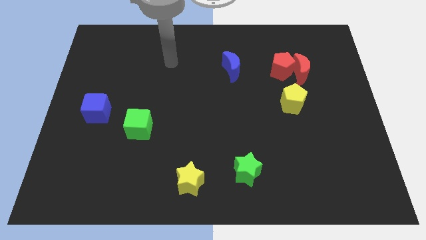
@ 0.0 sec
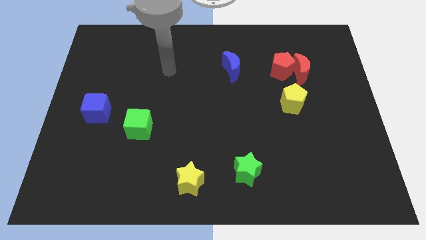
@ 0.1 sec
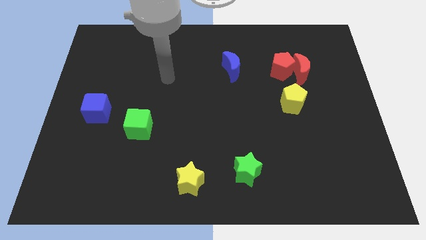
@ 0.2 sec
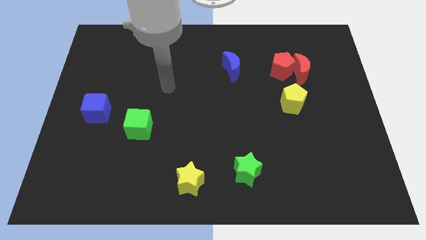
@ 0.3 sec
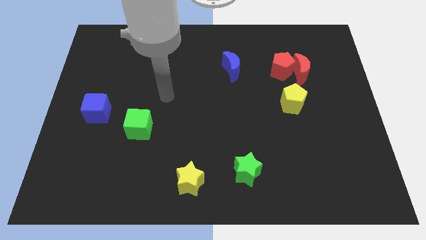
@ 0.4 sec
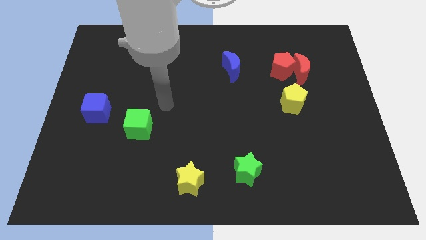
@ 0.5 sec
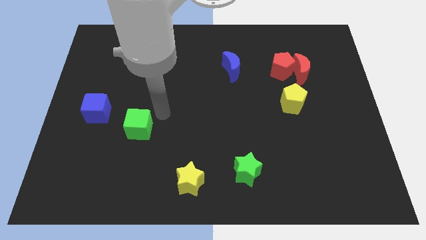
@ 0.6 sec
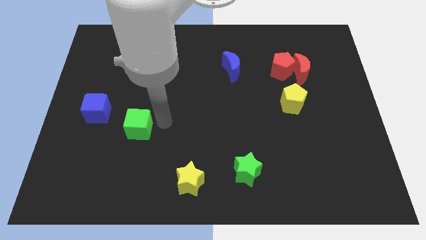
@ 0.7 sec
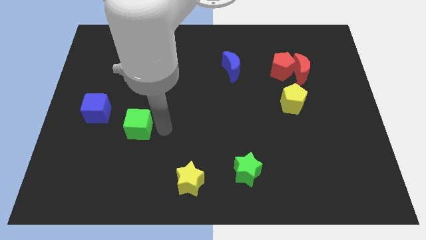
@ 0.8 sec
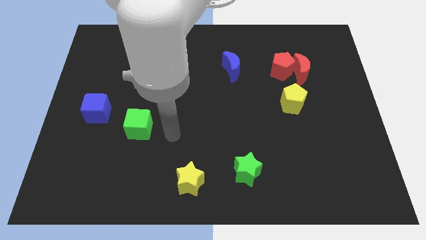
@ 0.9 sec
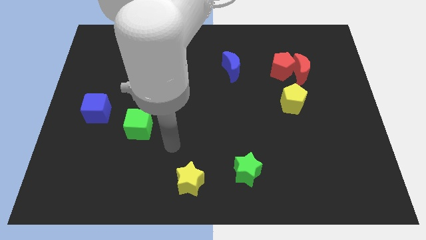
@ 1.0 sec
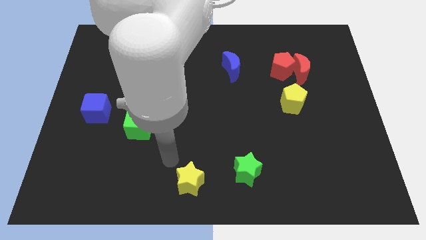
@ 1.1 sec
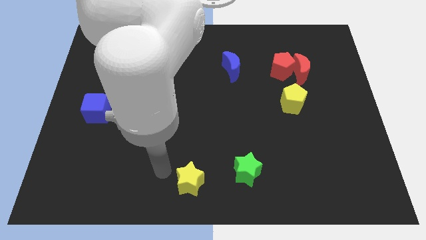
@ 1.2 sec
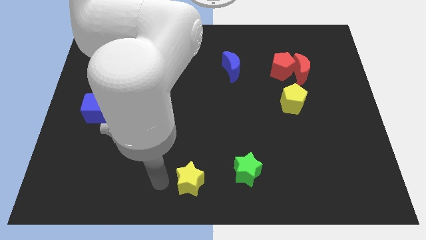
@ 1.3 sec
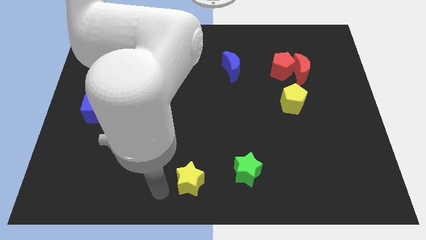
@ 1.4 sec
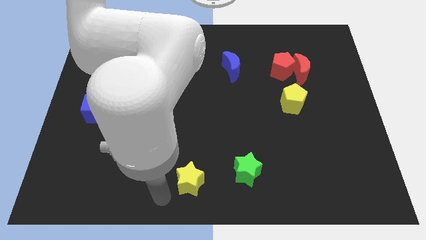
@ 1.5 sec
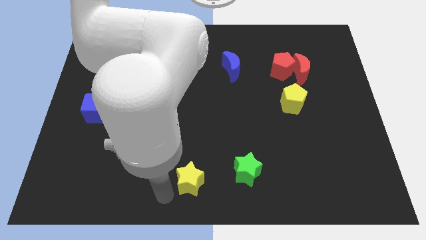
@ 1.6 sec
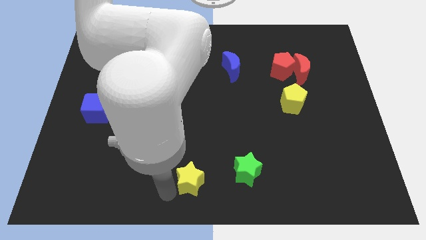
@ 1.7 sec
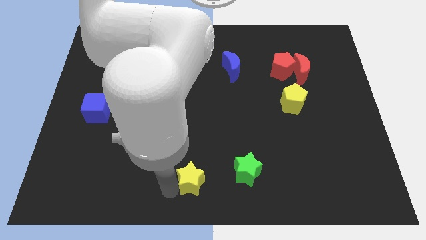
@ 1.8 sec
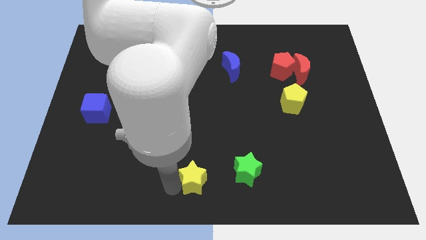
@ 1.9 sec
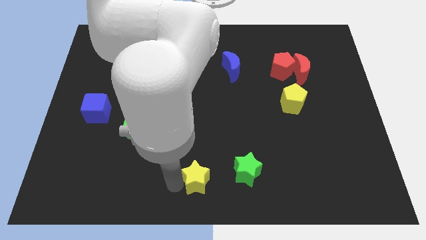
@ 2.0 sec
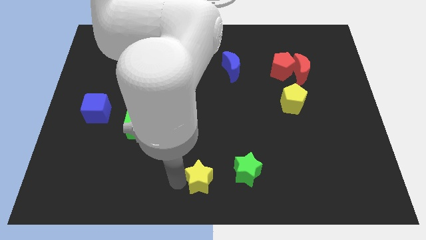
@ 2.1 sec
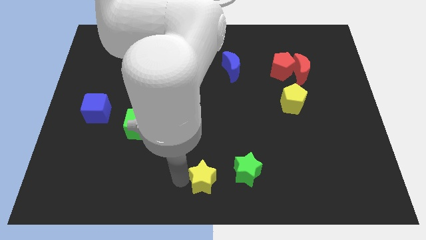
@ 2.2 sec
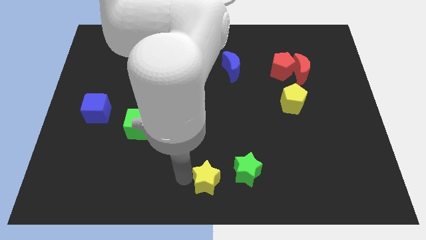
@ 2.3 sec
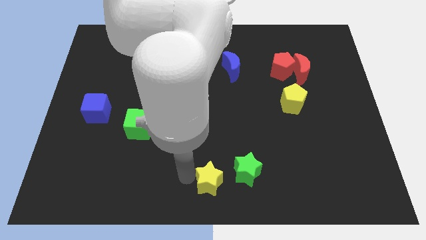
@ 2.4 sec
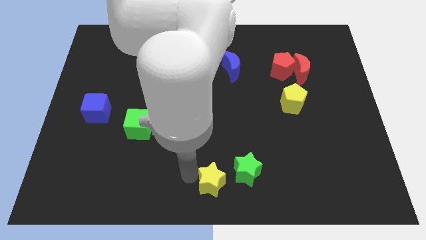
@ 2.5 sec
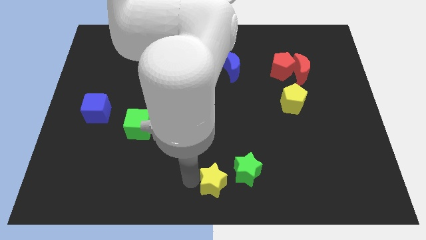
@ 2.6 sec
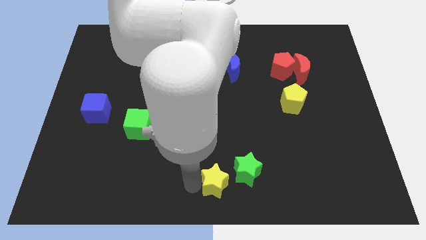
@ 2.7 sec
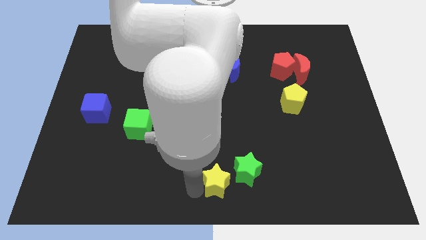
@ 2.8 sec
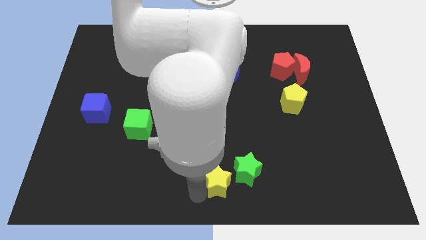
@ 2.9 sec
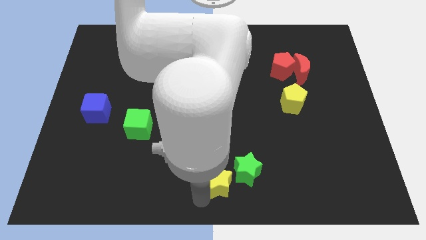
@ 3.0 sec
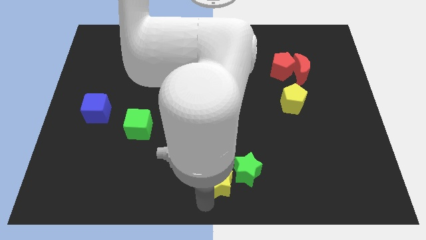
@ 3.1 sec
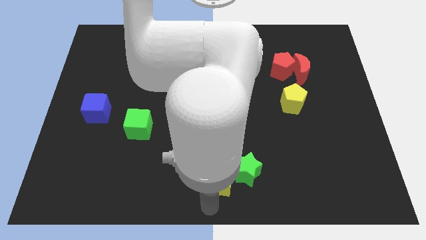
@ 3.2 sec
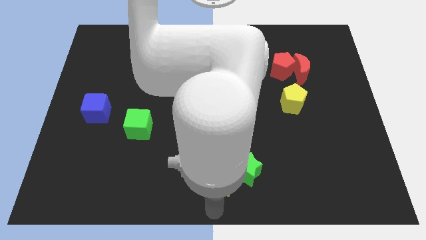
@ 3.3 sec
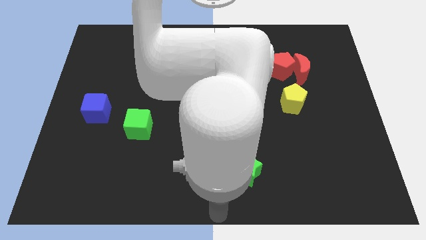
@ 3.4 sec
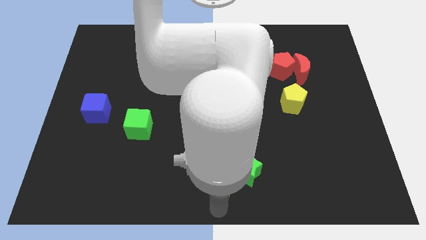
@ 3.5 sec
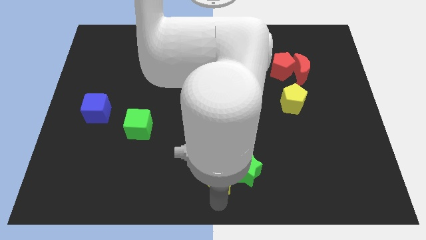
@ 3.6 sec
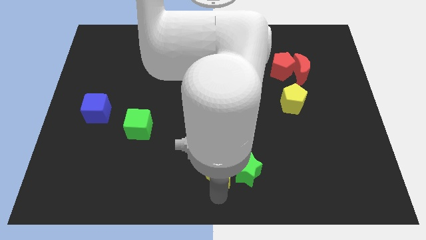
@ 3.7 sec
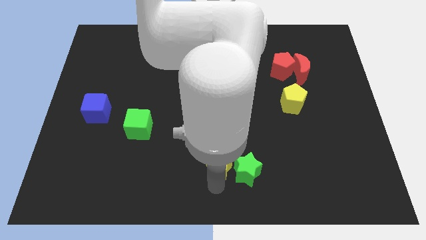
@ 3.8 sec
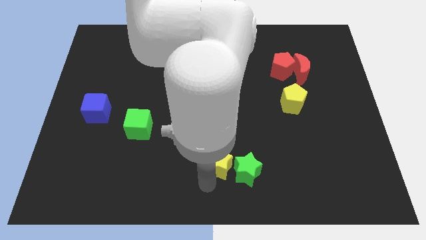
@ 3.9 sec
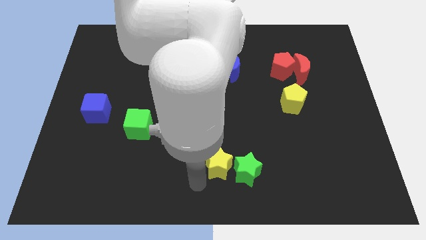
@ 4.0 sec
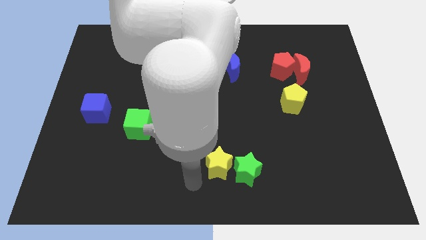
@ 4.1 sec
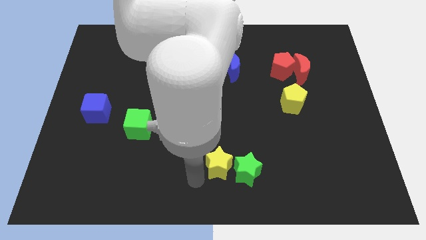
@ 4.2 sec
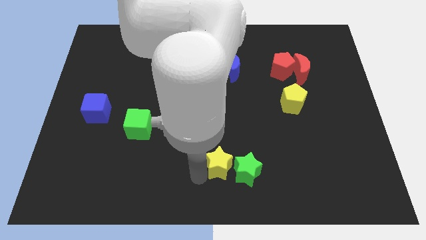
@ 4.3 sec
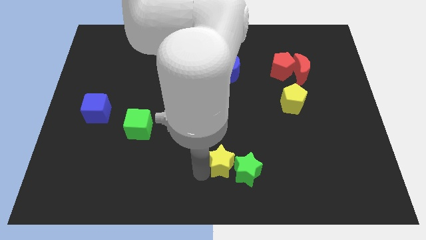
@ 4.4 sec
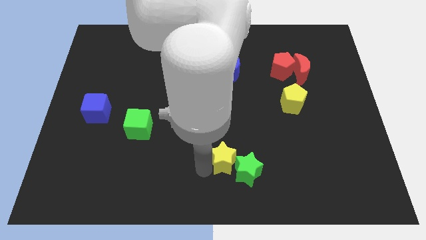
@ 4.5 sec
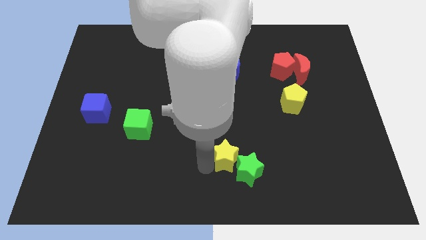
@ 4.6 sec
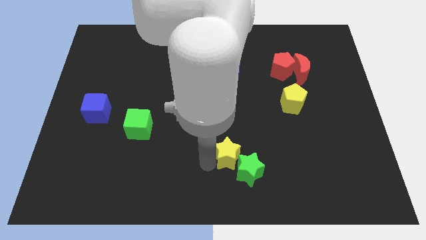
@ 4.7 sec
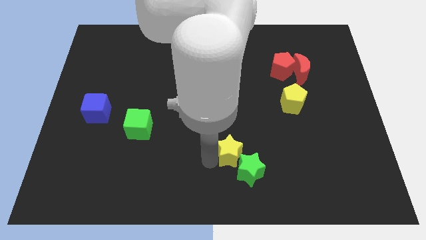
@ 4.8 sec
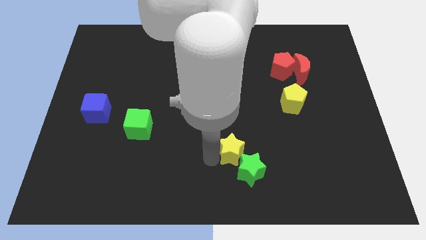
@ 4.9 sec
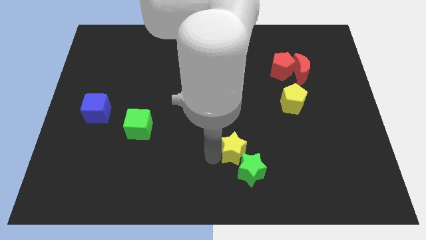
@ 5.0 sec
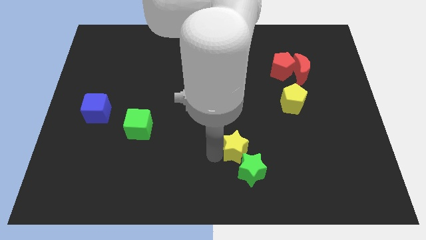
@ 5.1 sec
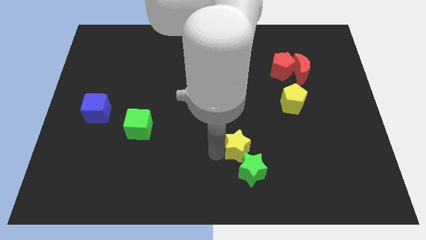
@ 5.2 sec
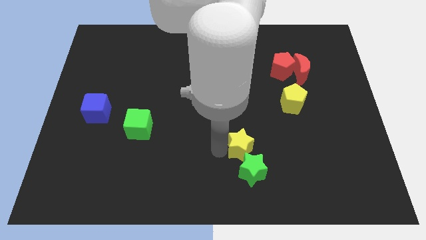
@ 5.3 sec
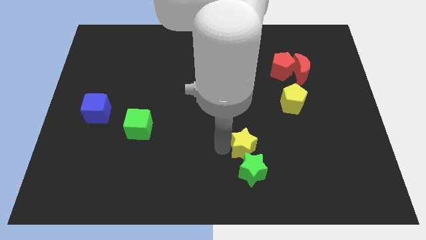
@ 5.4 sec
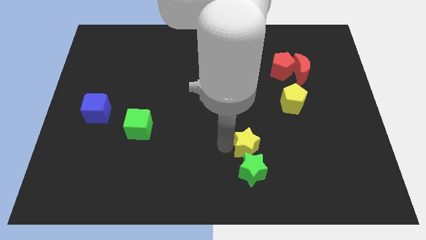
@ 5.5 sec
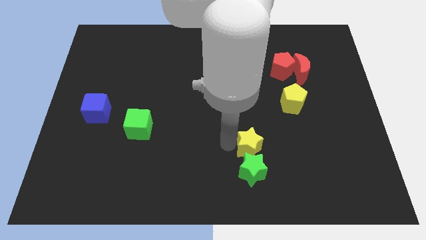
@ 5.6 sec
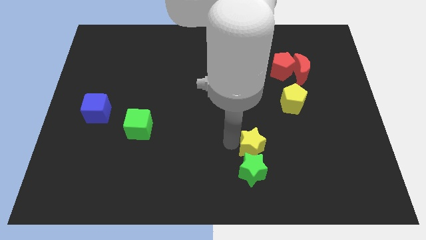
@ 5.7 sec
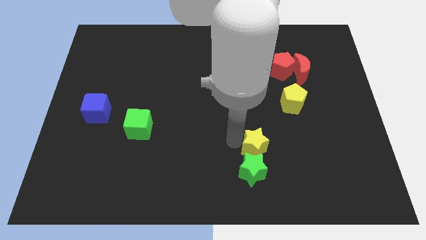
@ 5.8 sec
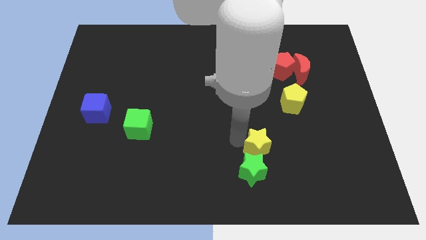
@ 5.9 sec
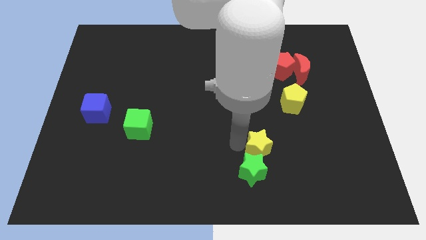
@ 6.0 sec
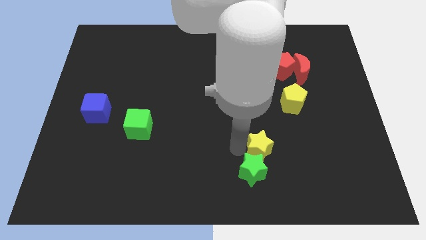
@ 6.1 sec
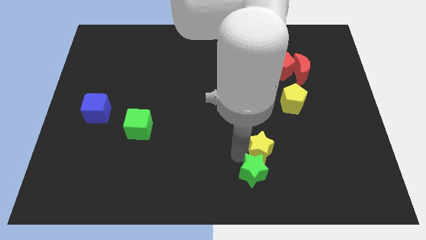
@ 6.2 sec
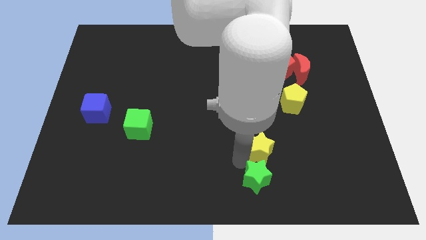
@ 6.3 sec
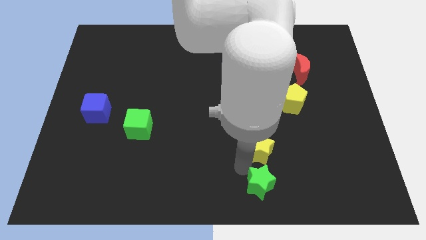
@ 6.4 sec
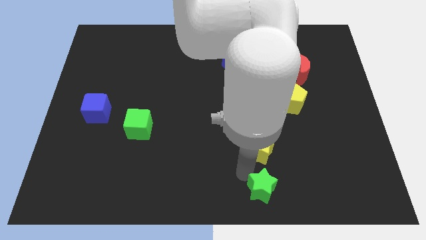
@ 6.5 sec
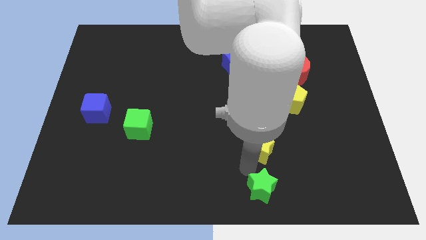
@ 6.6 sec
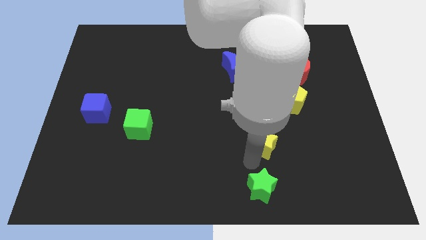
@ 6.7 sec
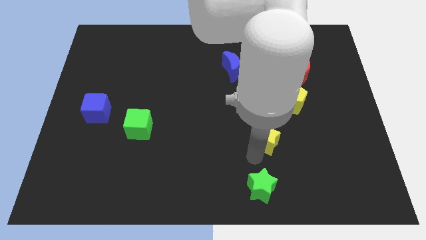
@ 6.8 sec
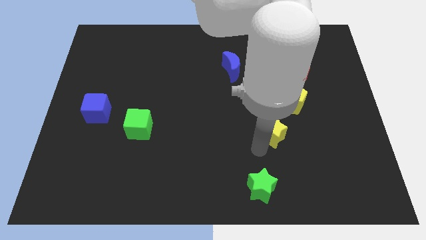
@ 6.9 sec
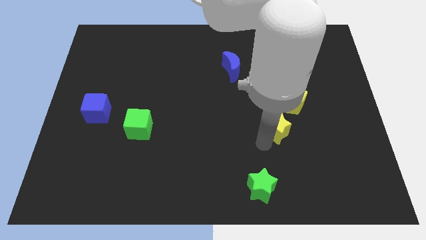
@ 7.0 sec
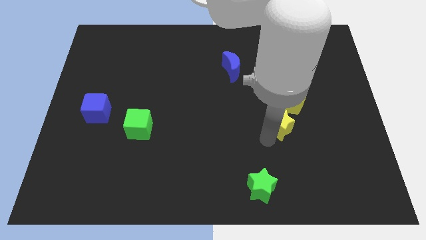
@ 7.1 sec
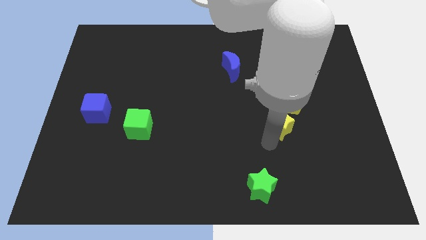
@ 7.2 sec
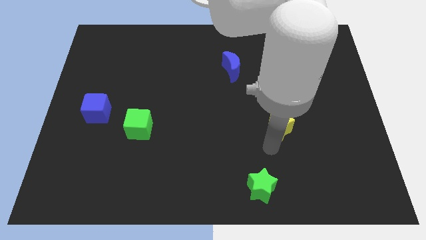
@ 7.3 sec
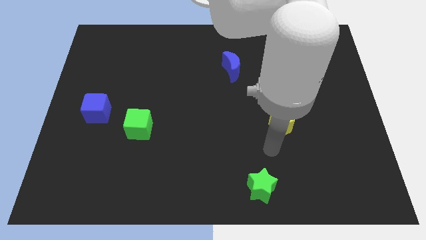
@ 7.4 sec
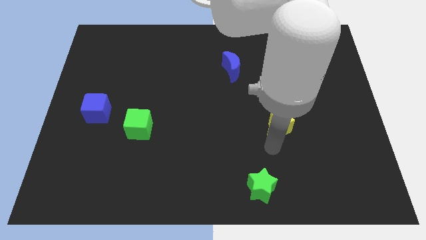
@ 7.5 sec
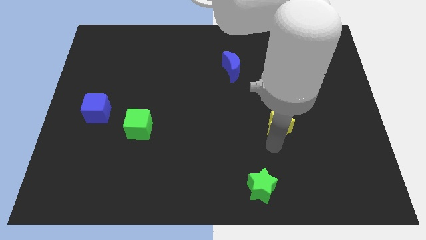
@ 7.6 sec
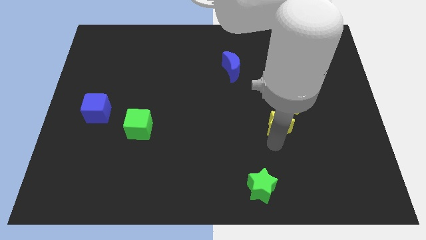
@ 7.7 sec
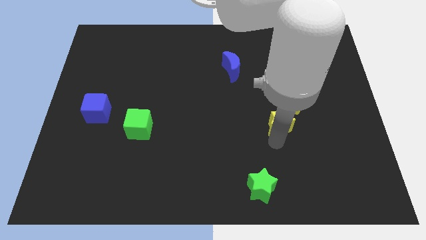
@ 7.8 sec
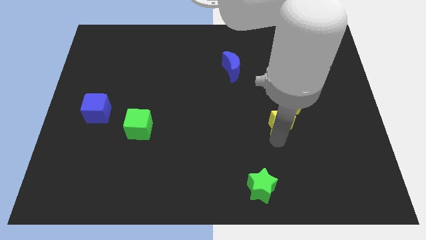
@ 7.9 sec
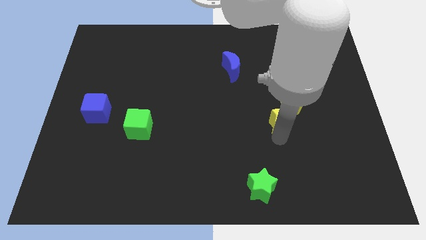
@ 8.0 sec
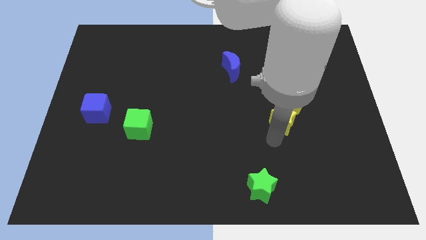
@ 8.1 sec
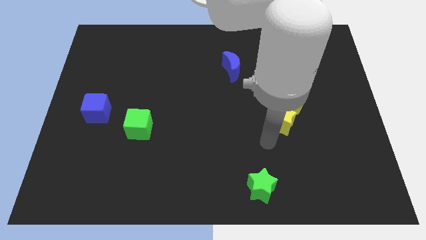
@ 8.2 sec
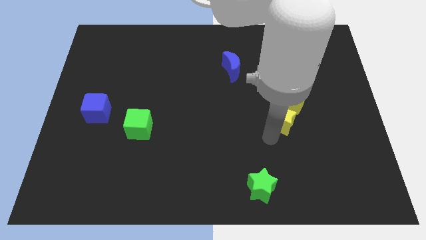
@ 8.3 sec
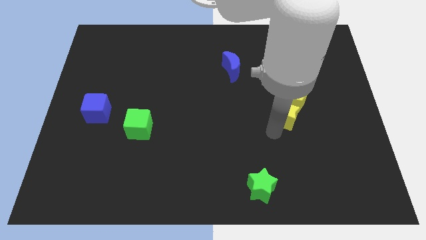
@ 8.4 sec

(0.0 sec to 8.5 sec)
push the yellow star close to the yellow pentagon
